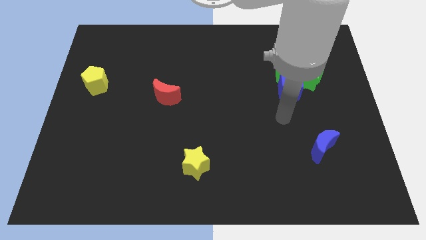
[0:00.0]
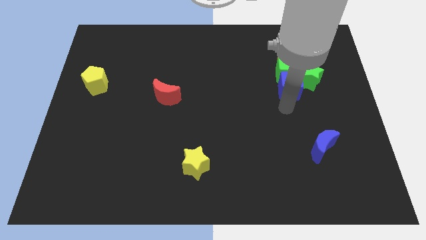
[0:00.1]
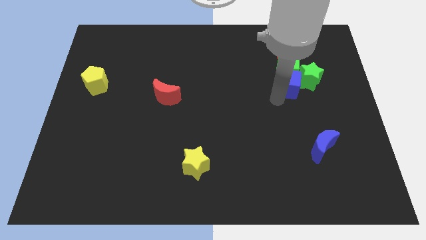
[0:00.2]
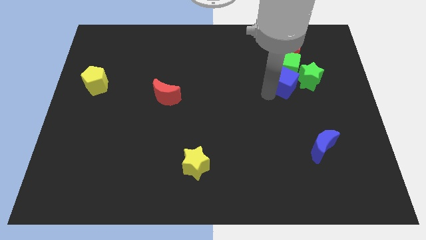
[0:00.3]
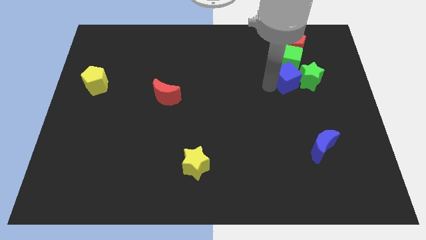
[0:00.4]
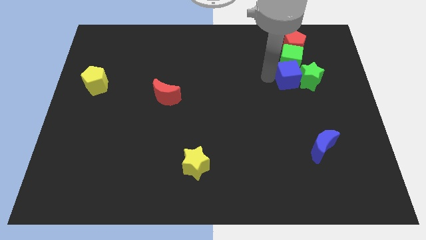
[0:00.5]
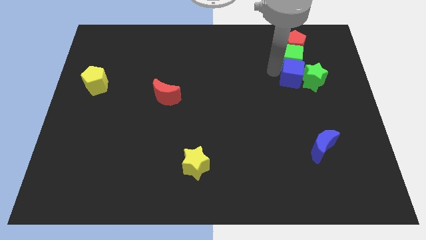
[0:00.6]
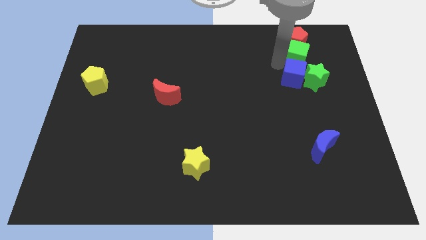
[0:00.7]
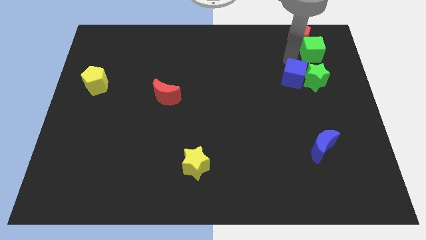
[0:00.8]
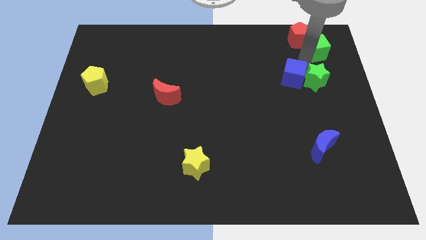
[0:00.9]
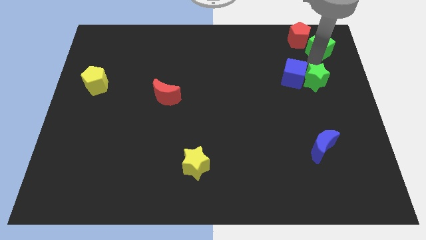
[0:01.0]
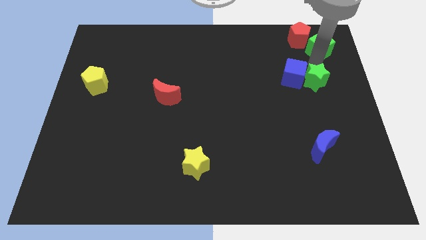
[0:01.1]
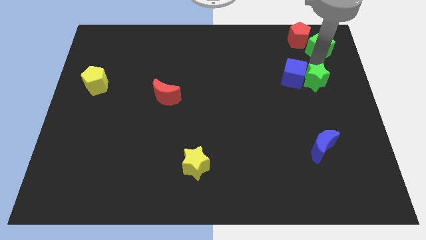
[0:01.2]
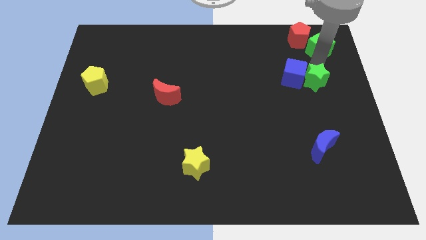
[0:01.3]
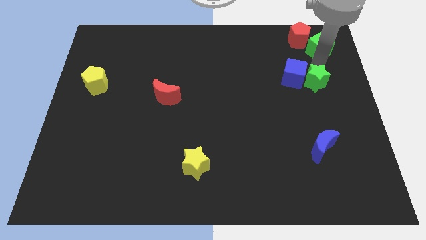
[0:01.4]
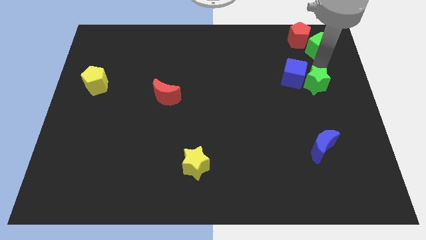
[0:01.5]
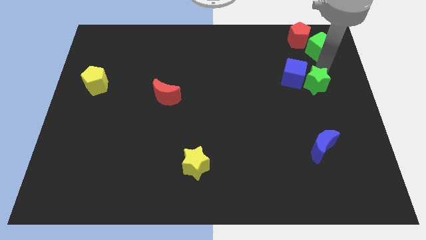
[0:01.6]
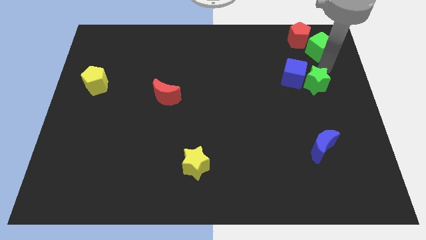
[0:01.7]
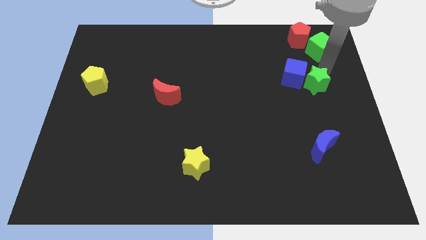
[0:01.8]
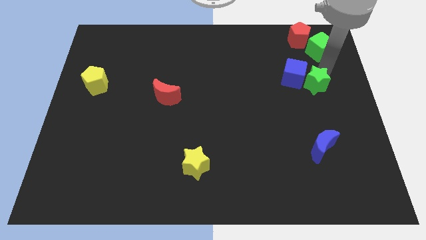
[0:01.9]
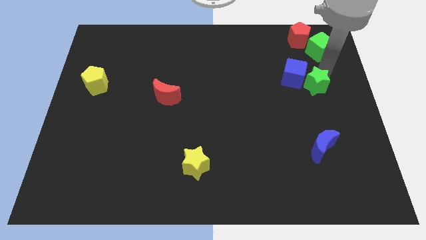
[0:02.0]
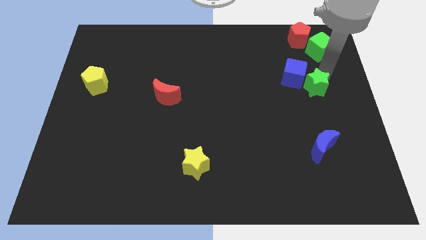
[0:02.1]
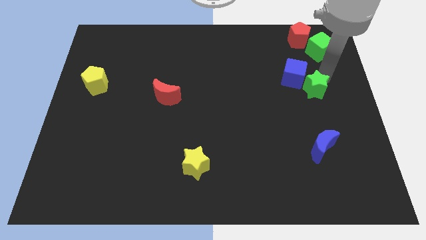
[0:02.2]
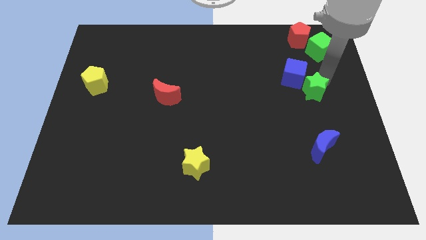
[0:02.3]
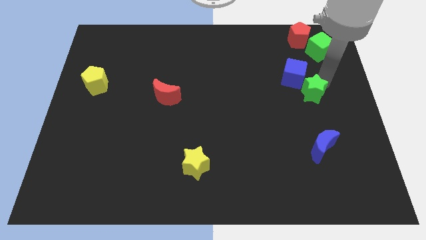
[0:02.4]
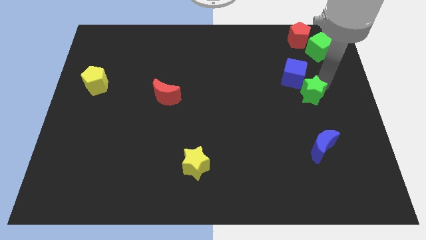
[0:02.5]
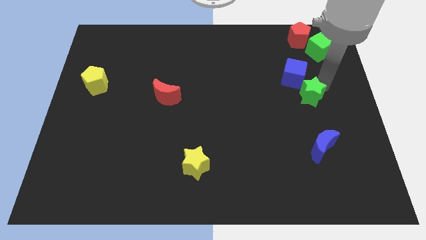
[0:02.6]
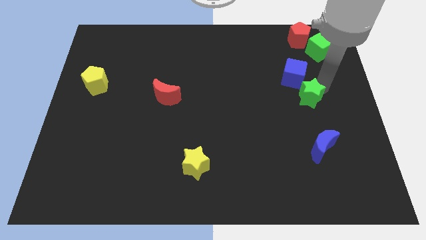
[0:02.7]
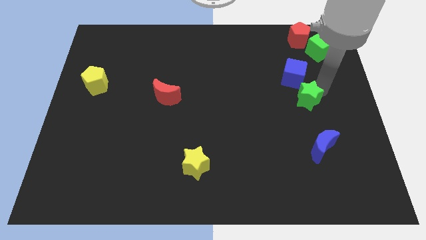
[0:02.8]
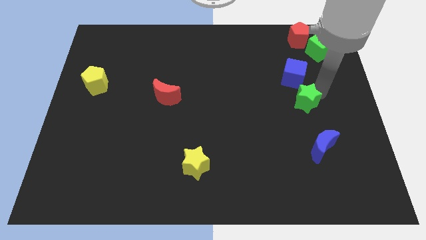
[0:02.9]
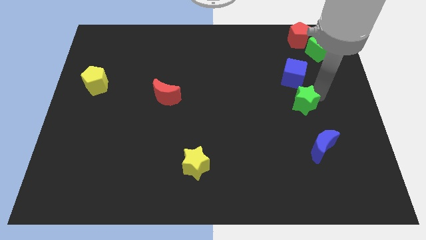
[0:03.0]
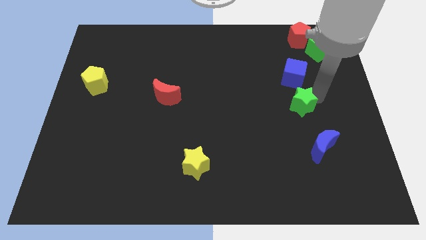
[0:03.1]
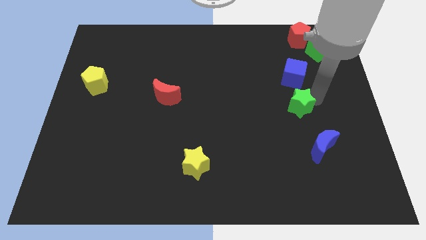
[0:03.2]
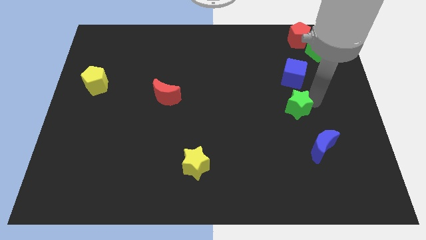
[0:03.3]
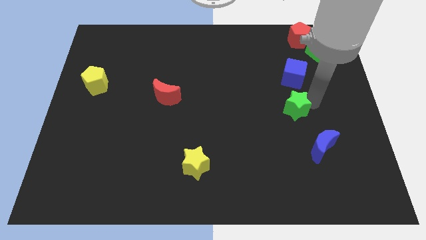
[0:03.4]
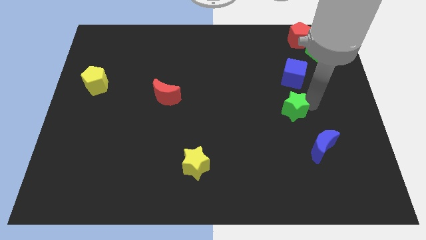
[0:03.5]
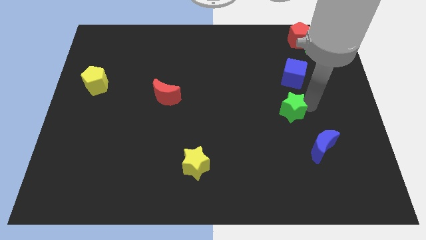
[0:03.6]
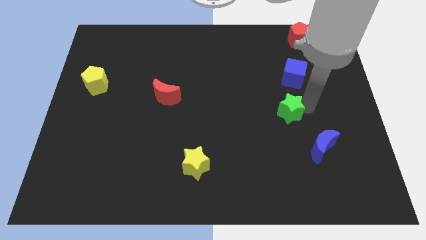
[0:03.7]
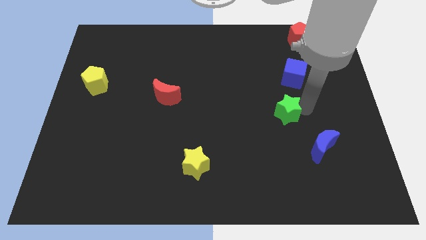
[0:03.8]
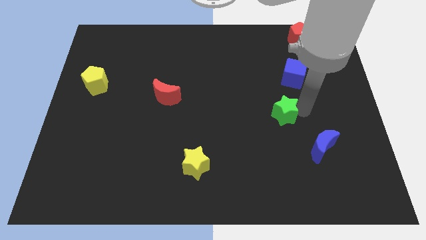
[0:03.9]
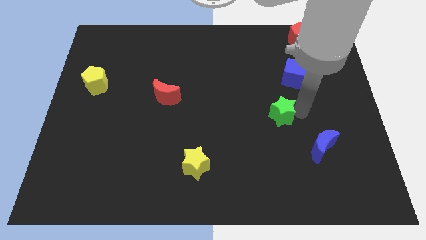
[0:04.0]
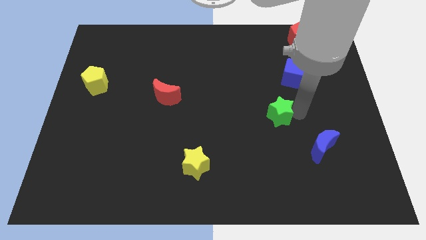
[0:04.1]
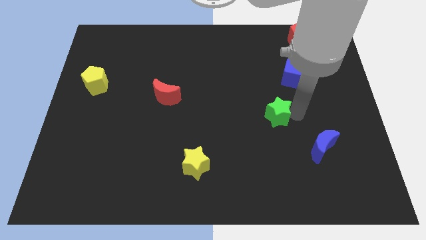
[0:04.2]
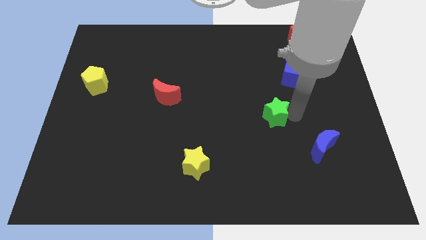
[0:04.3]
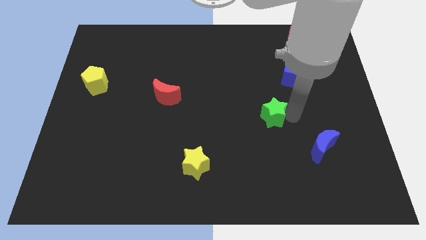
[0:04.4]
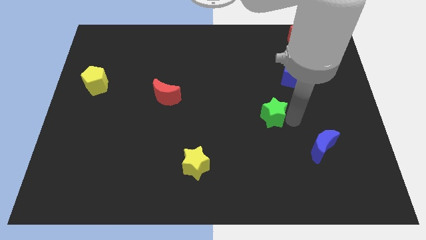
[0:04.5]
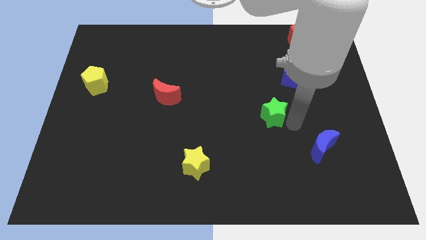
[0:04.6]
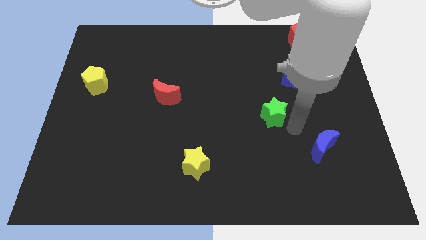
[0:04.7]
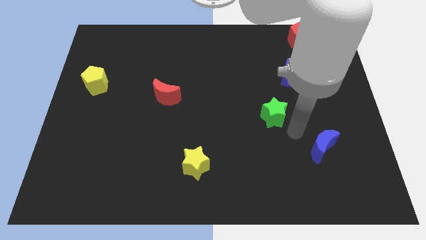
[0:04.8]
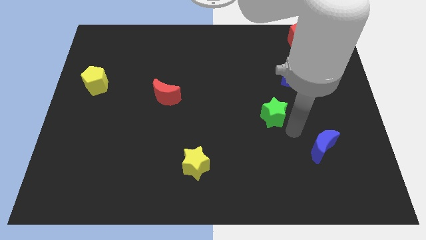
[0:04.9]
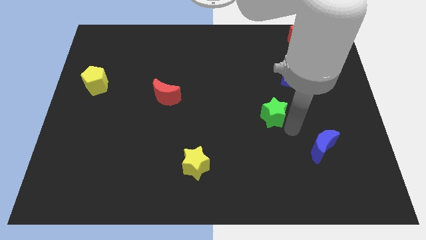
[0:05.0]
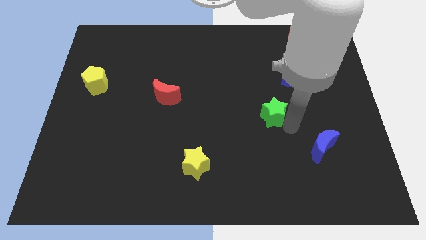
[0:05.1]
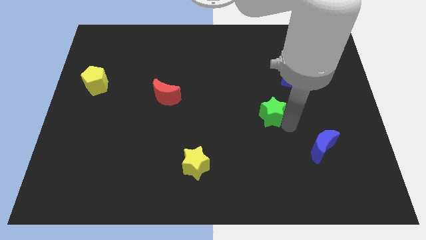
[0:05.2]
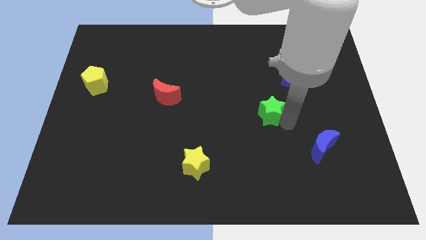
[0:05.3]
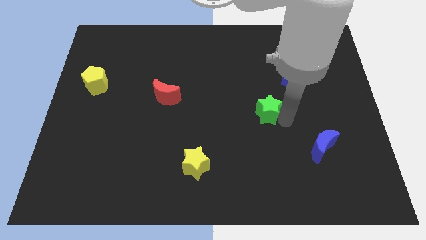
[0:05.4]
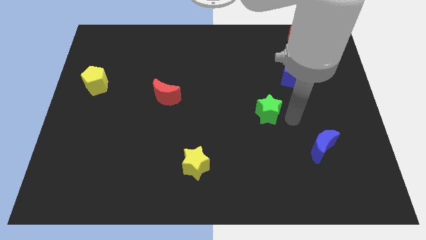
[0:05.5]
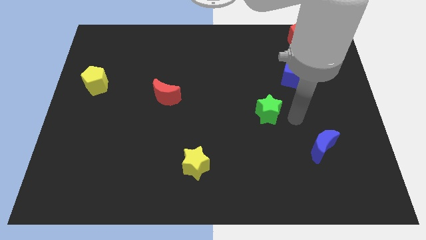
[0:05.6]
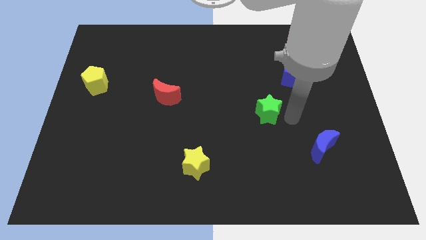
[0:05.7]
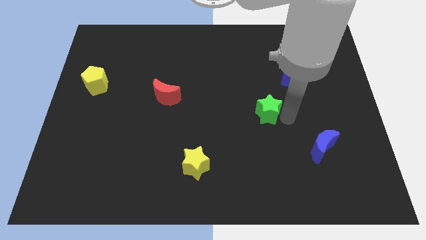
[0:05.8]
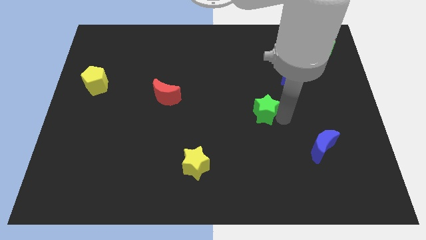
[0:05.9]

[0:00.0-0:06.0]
slide the green star to the middle

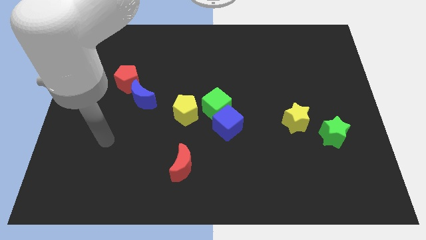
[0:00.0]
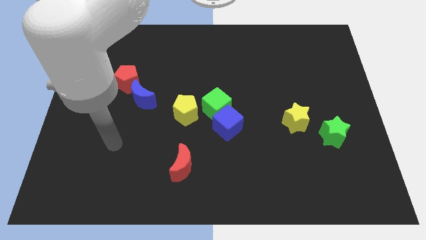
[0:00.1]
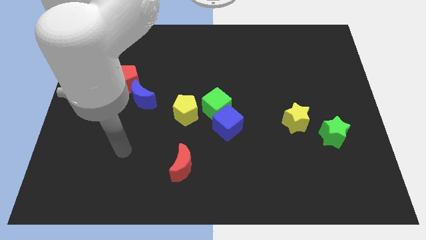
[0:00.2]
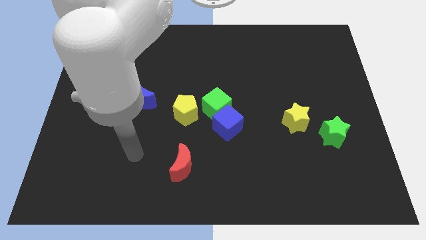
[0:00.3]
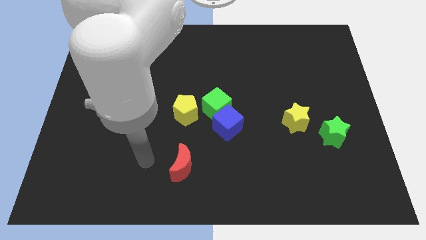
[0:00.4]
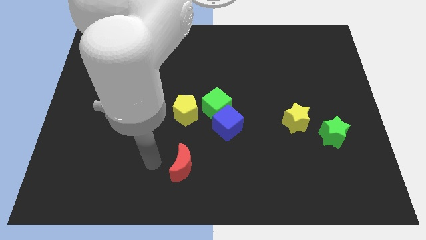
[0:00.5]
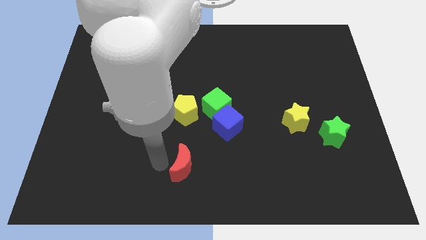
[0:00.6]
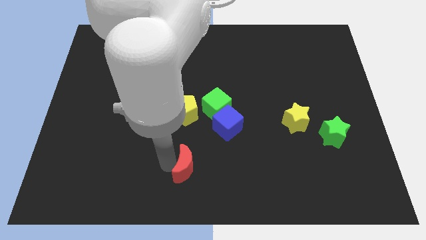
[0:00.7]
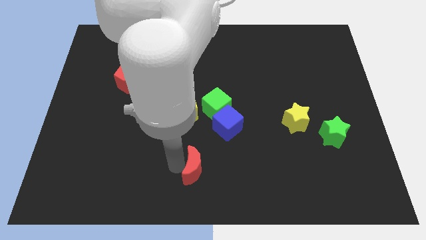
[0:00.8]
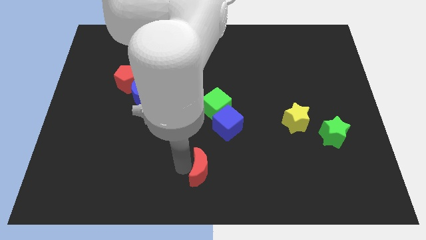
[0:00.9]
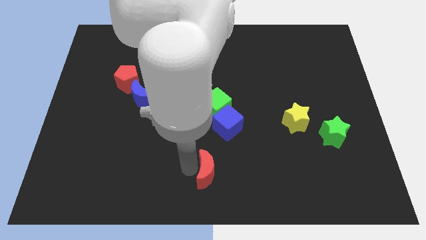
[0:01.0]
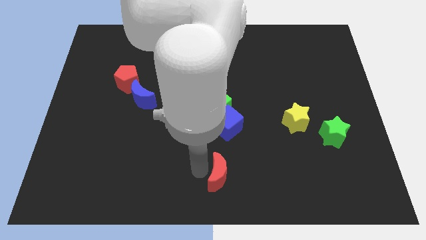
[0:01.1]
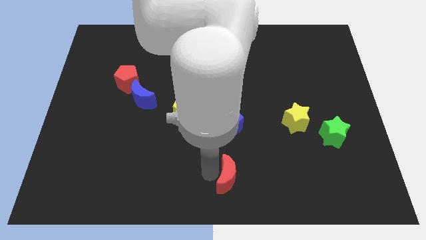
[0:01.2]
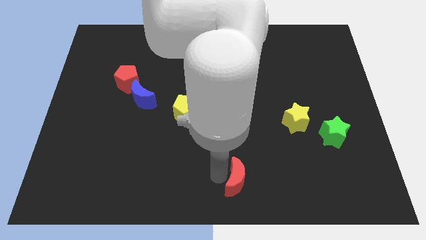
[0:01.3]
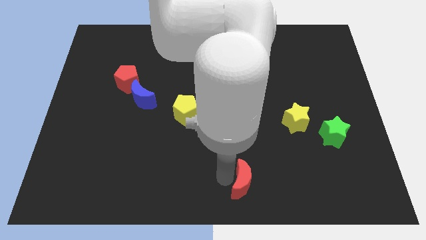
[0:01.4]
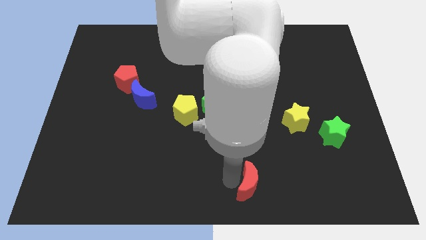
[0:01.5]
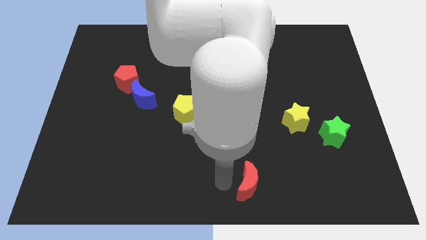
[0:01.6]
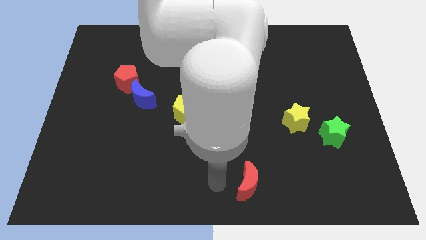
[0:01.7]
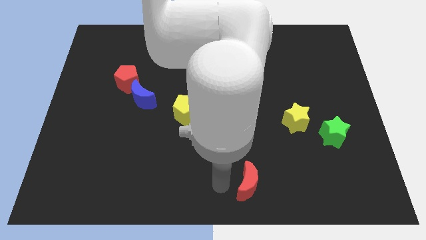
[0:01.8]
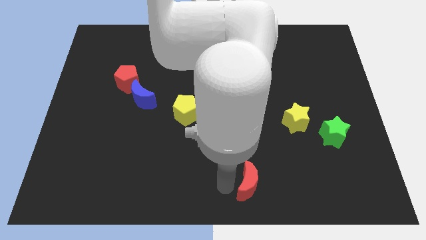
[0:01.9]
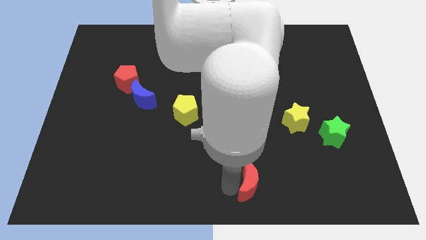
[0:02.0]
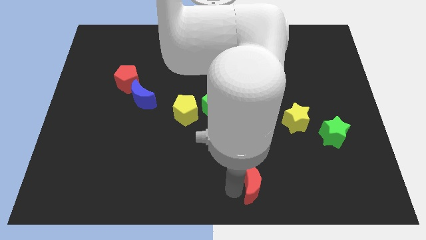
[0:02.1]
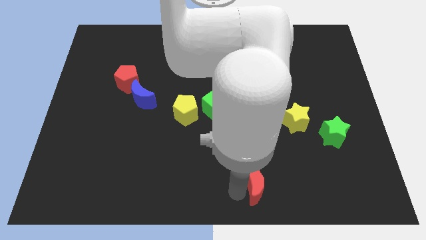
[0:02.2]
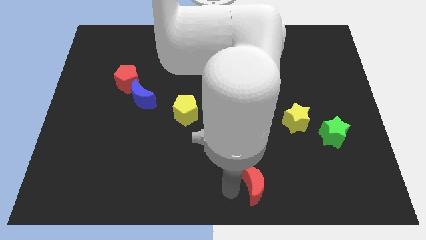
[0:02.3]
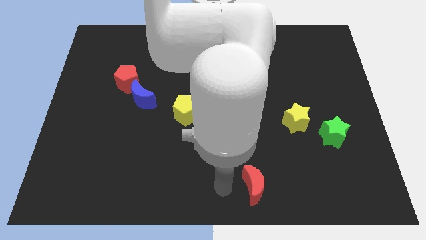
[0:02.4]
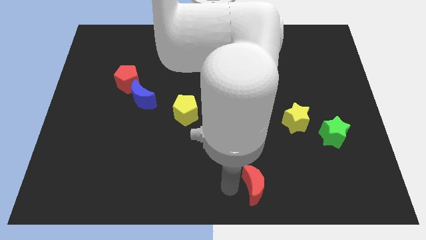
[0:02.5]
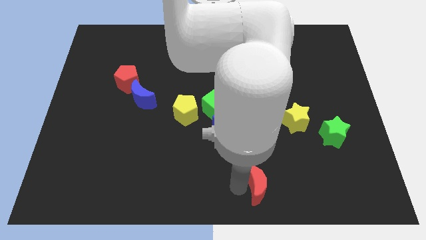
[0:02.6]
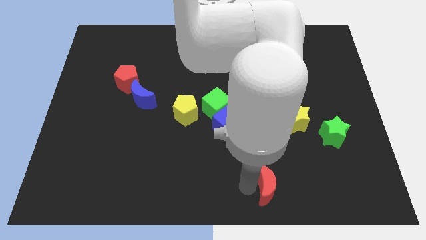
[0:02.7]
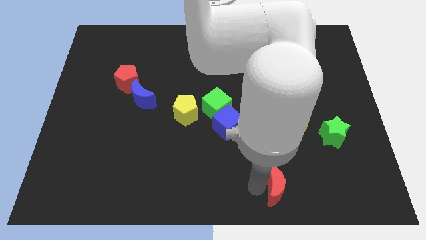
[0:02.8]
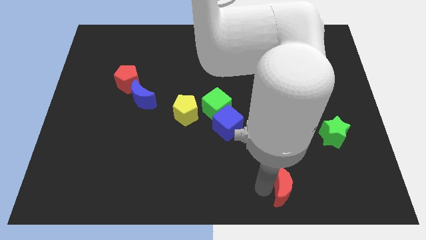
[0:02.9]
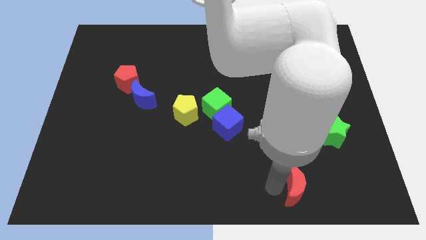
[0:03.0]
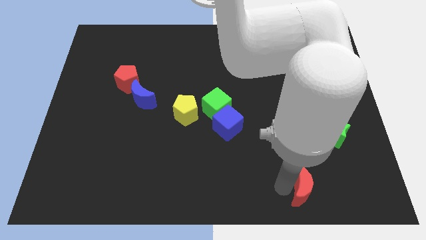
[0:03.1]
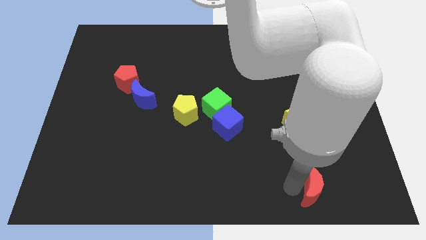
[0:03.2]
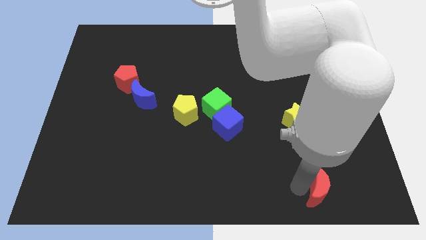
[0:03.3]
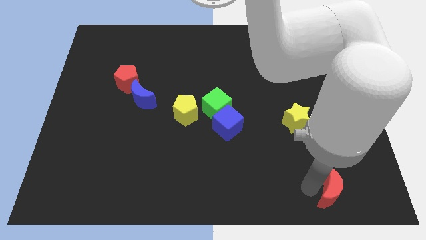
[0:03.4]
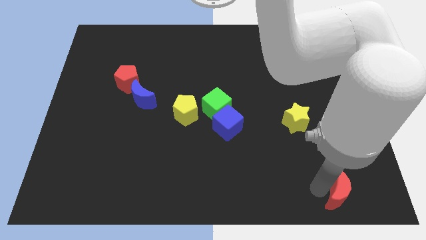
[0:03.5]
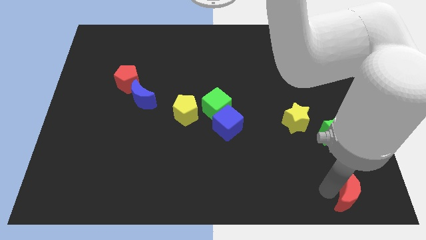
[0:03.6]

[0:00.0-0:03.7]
slide the red moon to the bottom right corner
